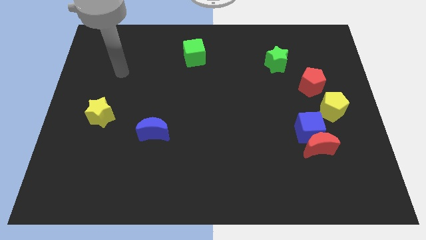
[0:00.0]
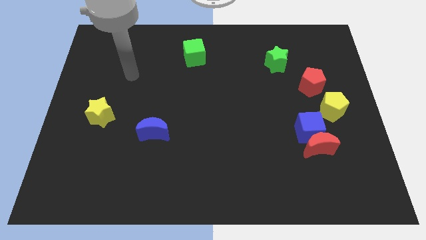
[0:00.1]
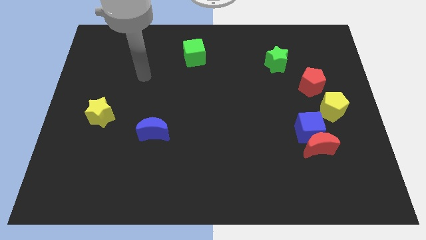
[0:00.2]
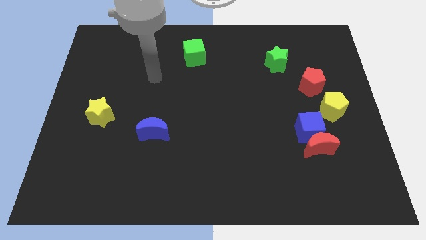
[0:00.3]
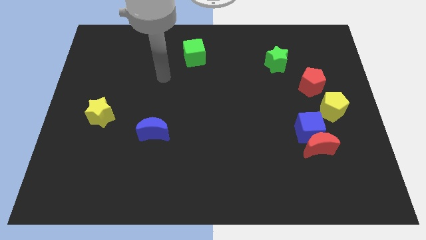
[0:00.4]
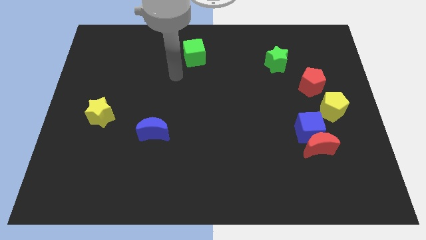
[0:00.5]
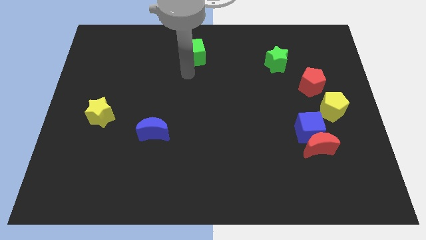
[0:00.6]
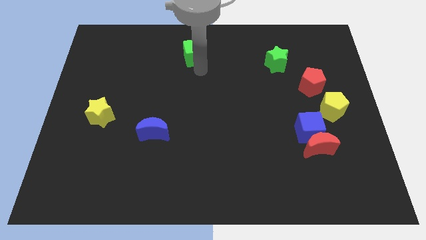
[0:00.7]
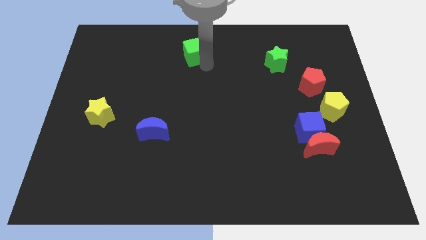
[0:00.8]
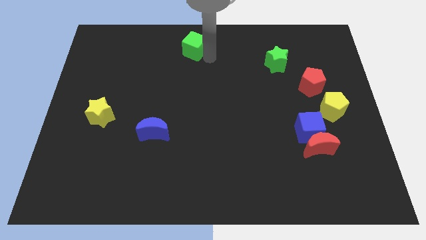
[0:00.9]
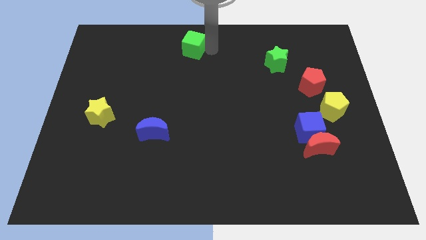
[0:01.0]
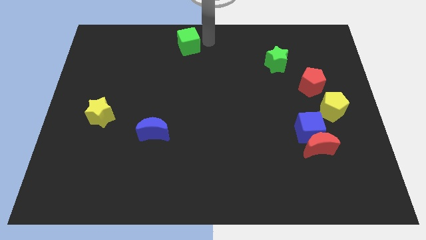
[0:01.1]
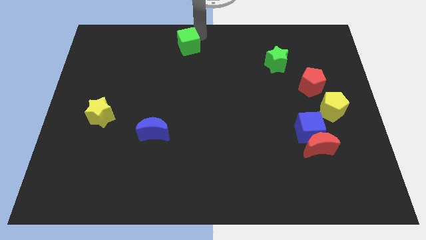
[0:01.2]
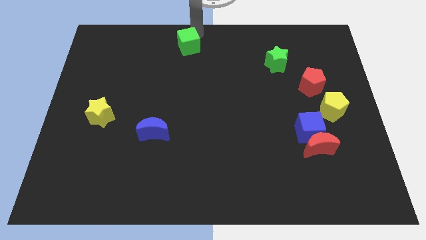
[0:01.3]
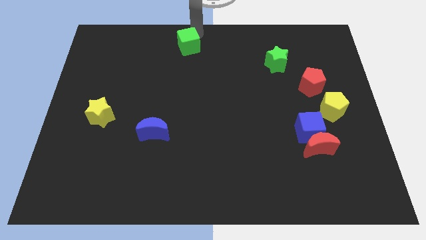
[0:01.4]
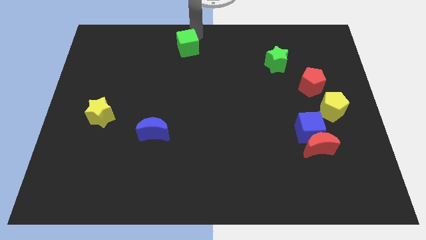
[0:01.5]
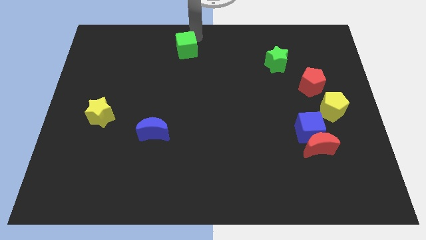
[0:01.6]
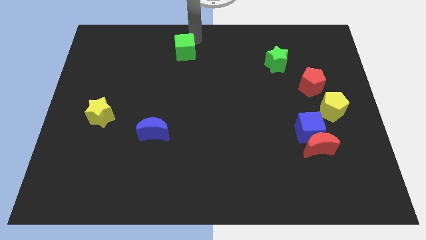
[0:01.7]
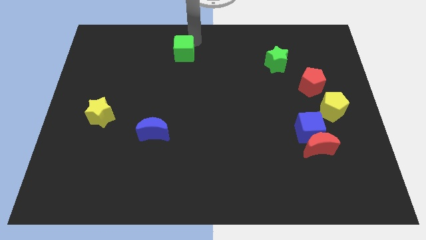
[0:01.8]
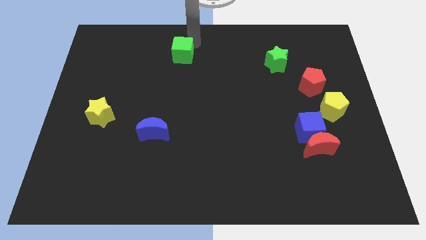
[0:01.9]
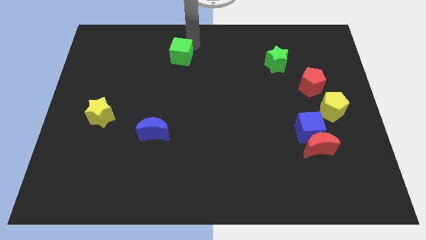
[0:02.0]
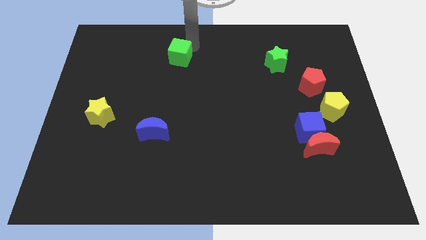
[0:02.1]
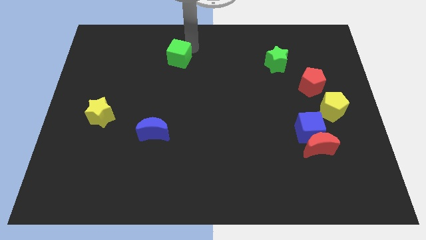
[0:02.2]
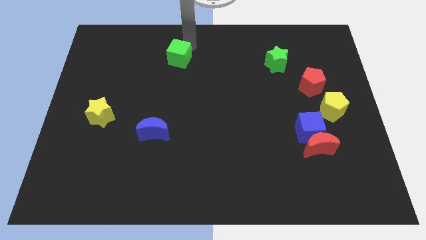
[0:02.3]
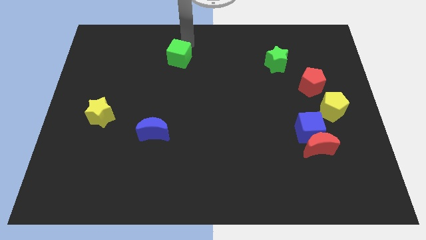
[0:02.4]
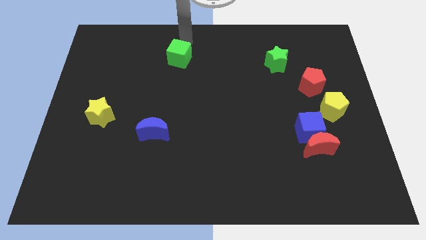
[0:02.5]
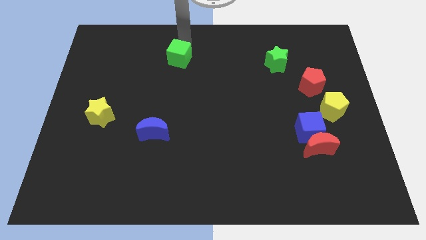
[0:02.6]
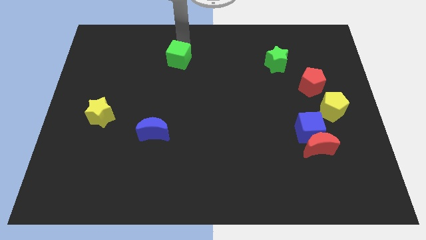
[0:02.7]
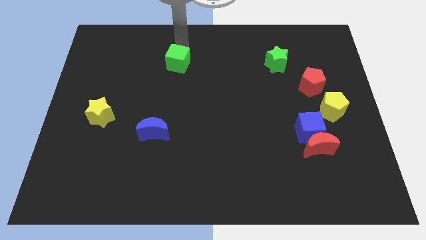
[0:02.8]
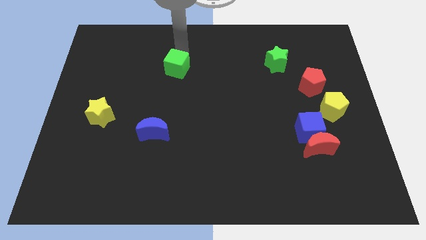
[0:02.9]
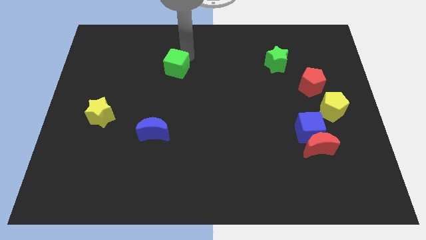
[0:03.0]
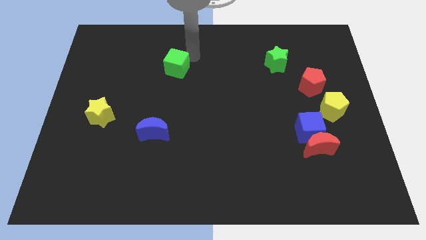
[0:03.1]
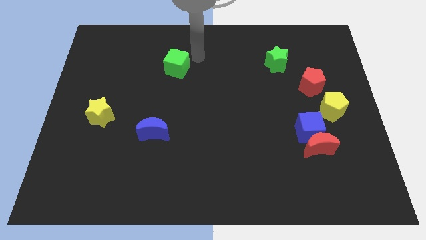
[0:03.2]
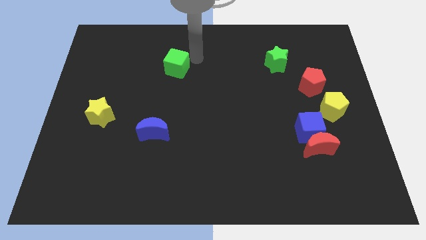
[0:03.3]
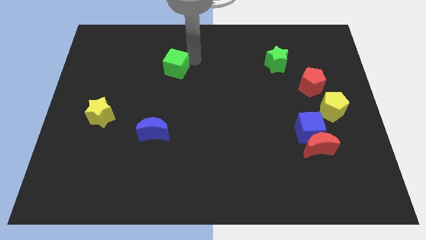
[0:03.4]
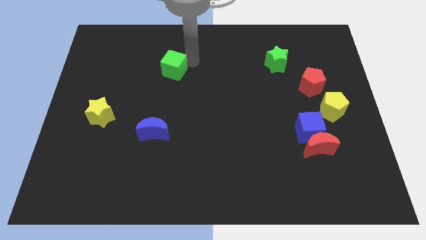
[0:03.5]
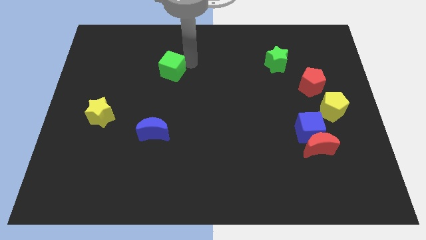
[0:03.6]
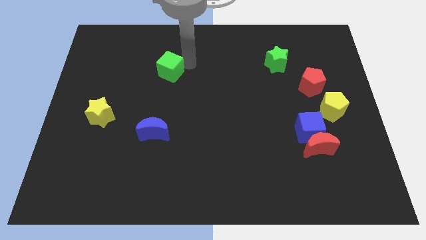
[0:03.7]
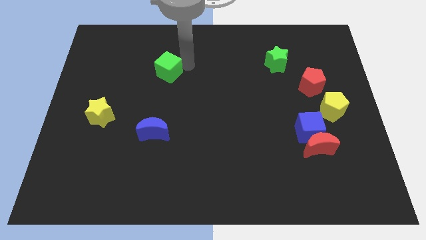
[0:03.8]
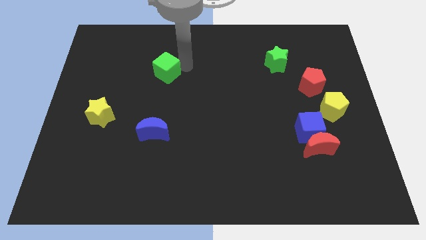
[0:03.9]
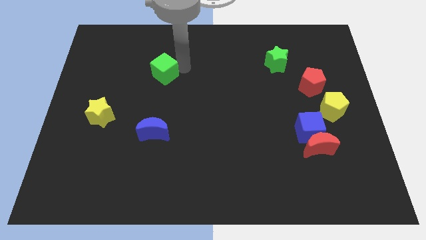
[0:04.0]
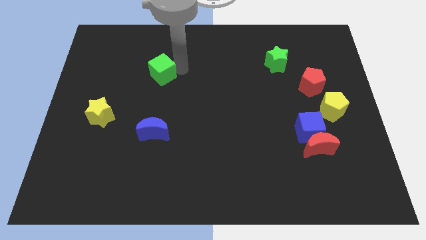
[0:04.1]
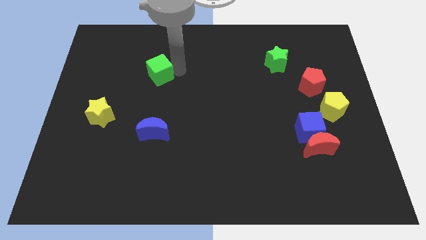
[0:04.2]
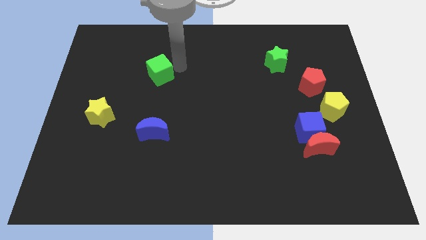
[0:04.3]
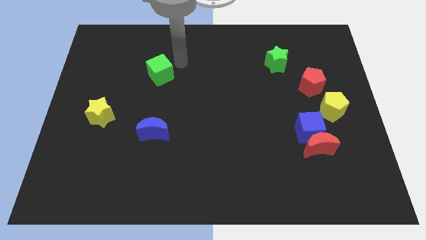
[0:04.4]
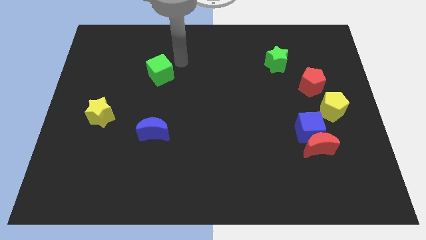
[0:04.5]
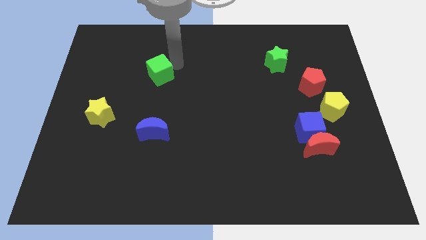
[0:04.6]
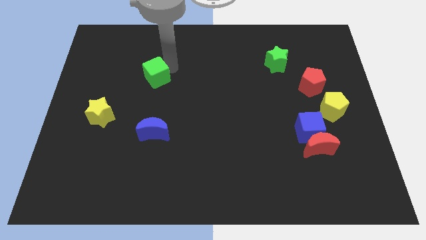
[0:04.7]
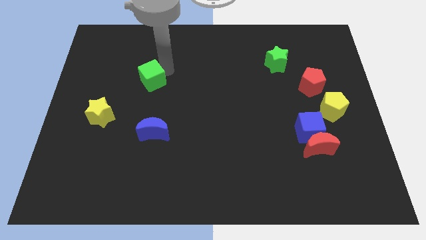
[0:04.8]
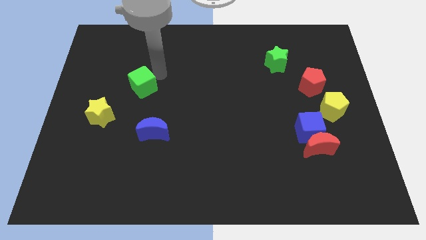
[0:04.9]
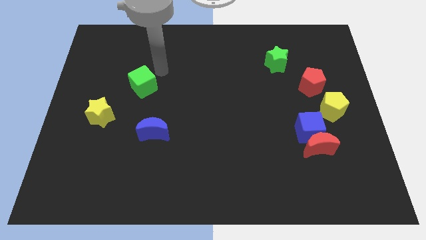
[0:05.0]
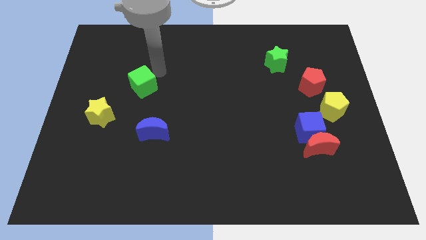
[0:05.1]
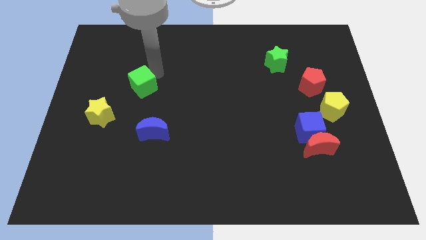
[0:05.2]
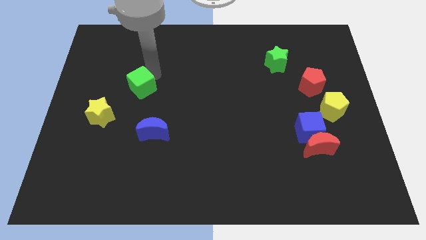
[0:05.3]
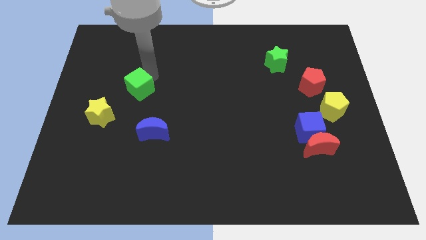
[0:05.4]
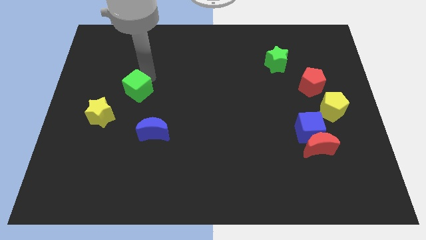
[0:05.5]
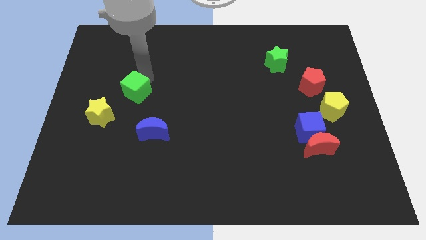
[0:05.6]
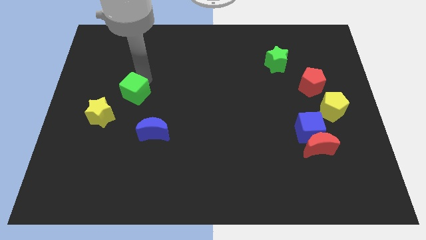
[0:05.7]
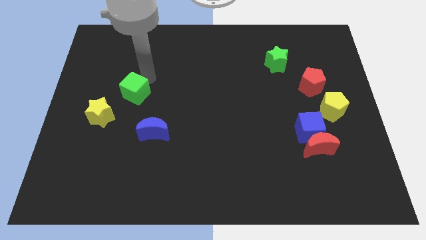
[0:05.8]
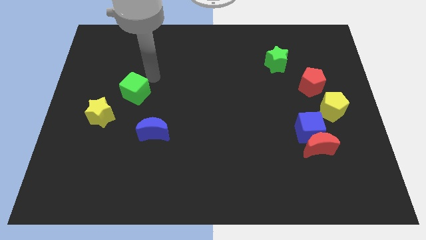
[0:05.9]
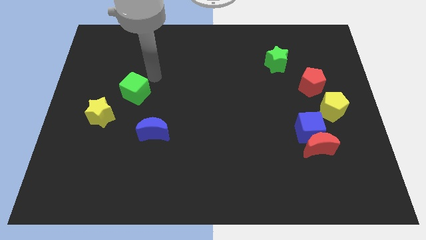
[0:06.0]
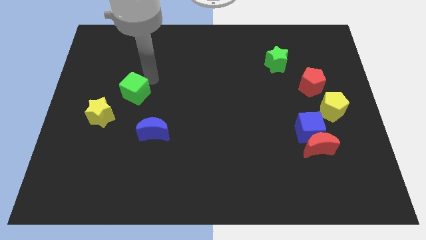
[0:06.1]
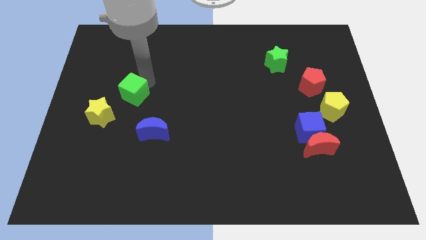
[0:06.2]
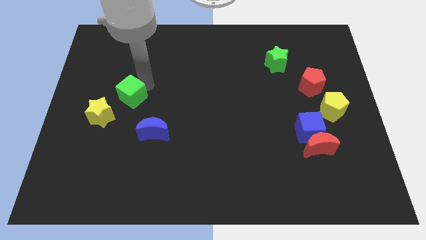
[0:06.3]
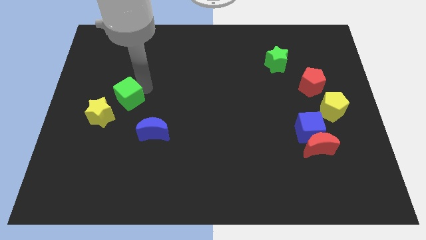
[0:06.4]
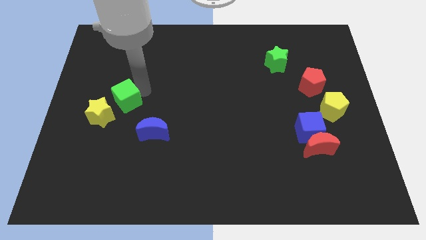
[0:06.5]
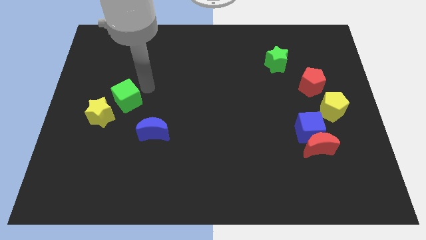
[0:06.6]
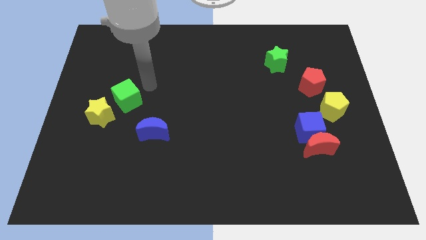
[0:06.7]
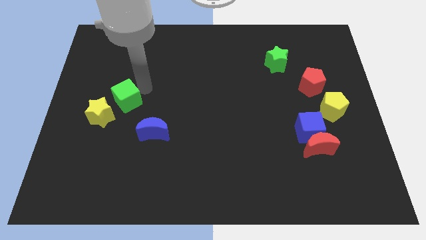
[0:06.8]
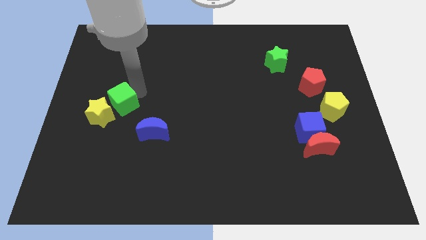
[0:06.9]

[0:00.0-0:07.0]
slide the green cube next to the yellow star

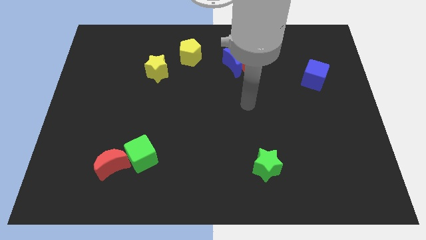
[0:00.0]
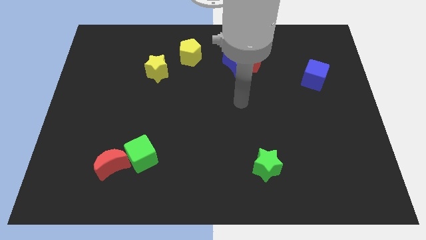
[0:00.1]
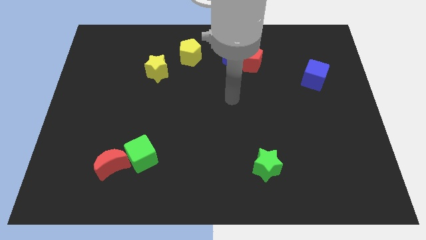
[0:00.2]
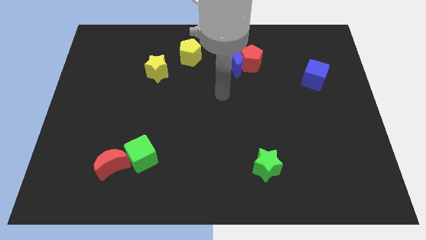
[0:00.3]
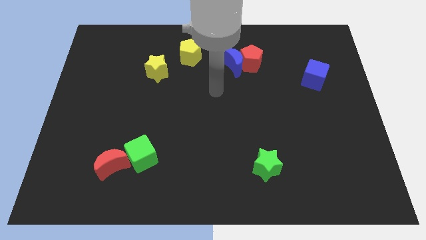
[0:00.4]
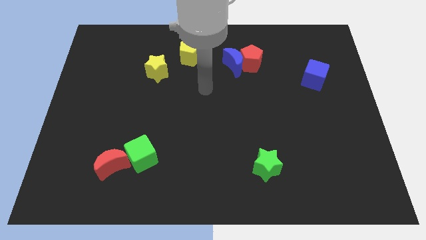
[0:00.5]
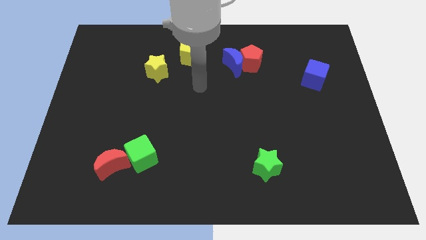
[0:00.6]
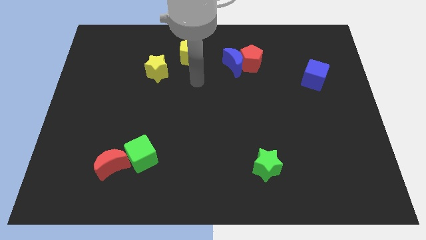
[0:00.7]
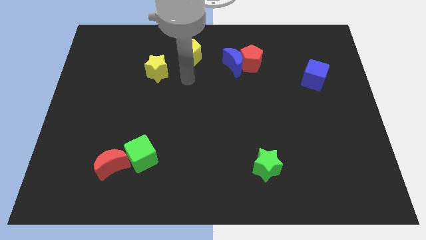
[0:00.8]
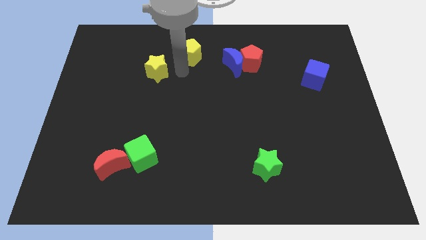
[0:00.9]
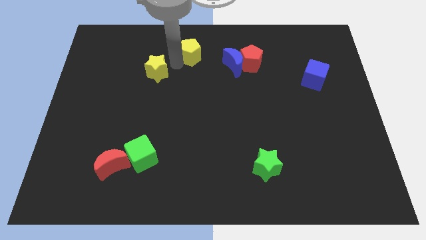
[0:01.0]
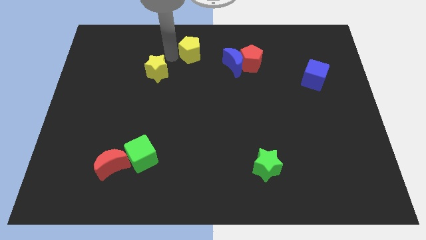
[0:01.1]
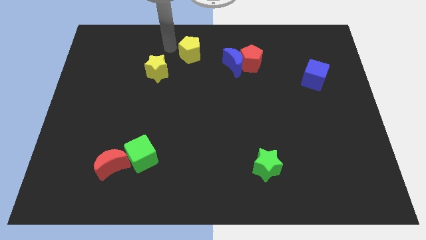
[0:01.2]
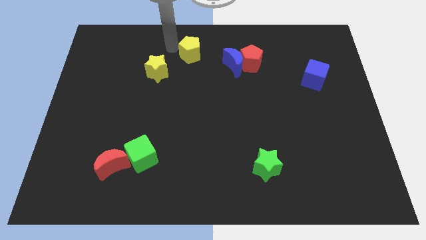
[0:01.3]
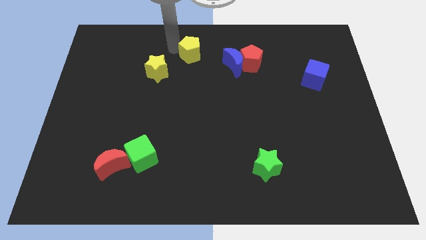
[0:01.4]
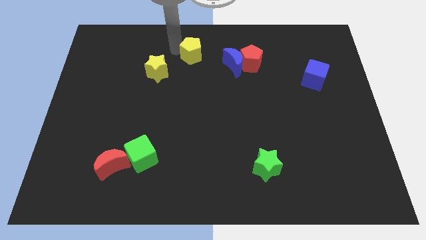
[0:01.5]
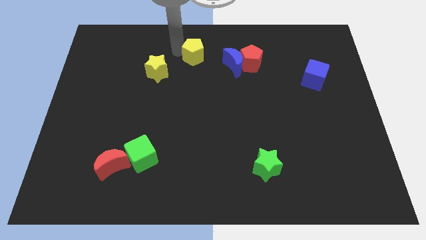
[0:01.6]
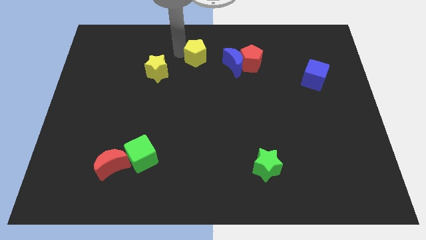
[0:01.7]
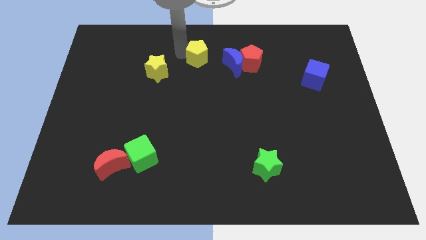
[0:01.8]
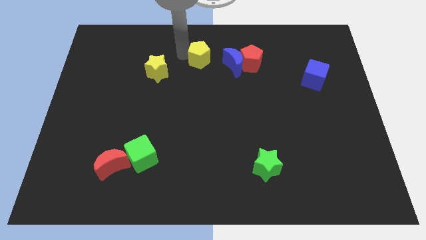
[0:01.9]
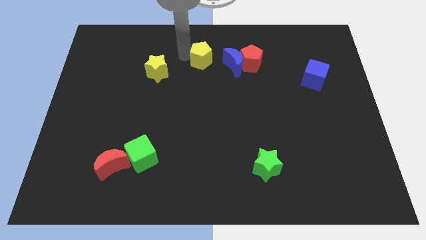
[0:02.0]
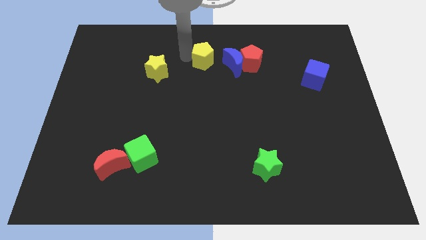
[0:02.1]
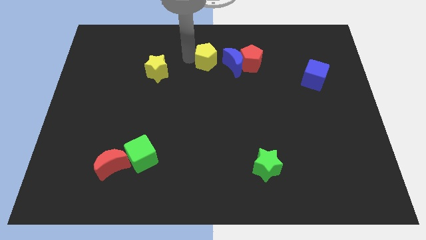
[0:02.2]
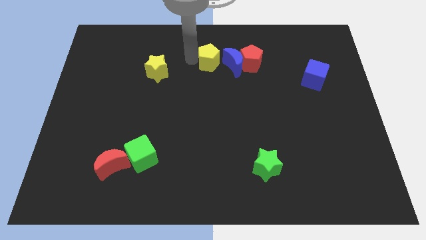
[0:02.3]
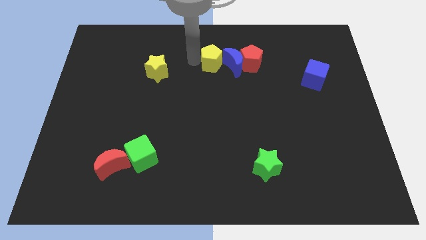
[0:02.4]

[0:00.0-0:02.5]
push the yellow pentagon to the blue moon
